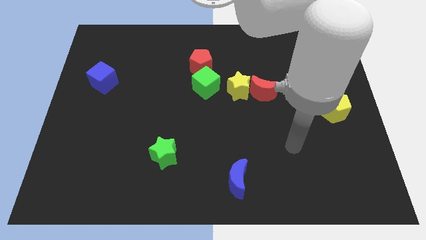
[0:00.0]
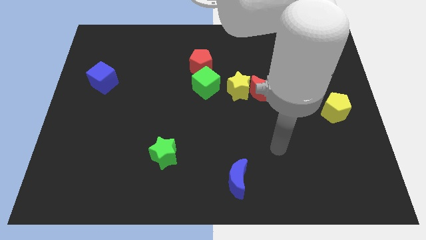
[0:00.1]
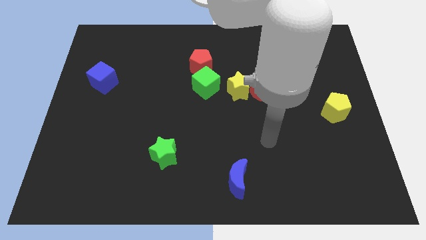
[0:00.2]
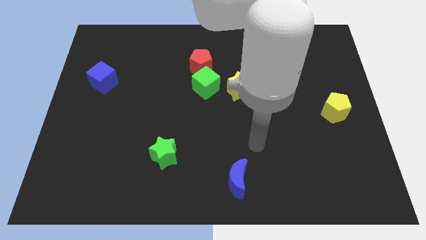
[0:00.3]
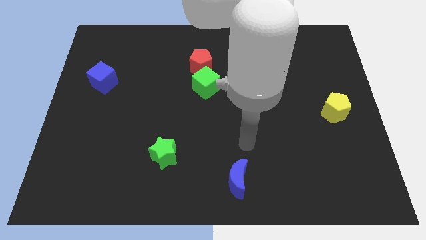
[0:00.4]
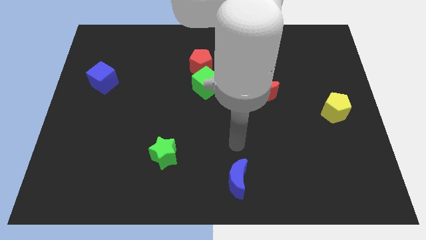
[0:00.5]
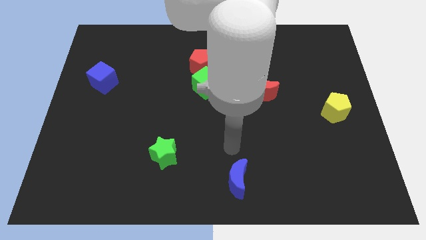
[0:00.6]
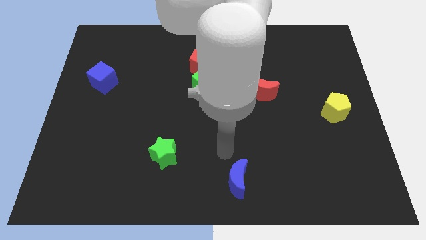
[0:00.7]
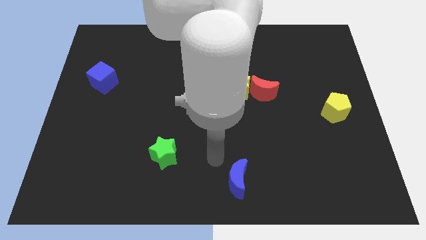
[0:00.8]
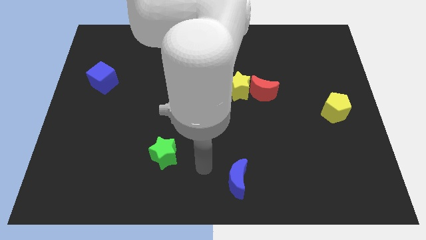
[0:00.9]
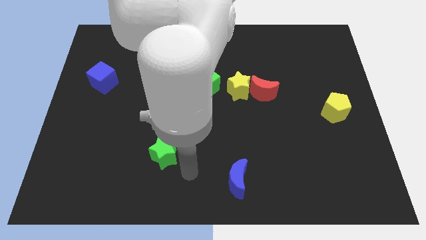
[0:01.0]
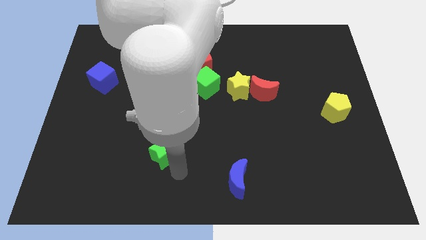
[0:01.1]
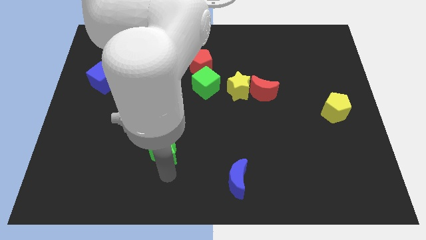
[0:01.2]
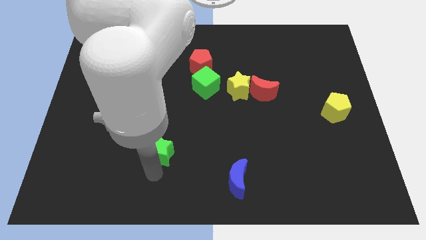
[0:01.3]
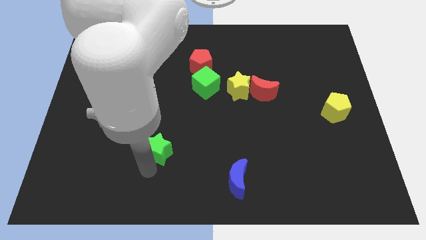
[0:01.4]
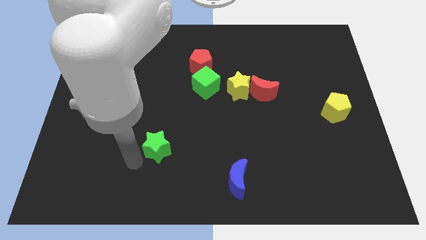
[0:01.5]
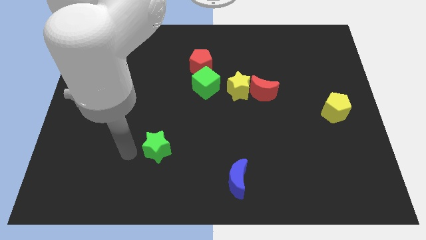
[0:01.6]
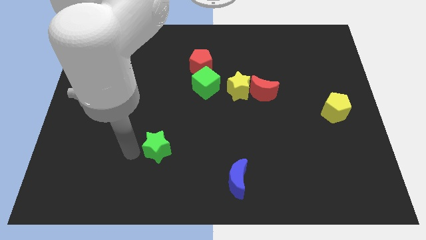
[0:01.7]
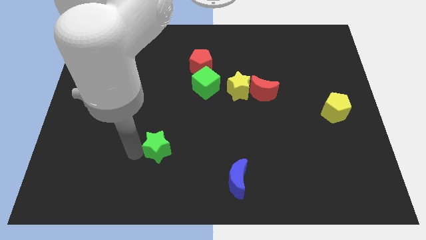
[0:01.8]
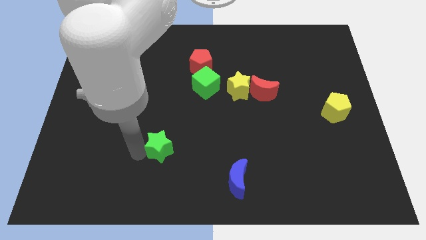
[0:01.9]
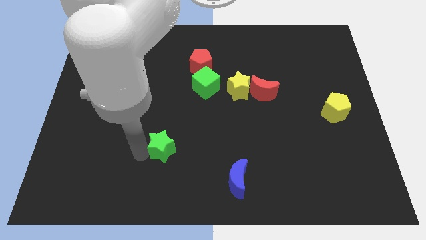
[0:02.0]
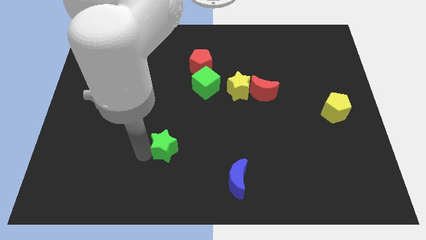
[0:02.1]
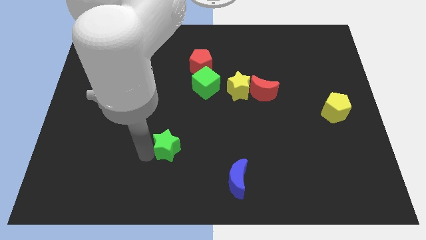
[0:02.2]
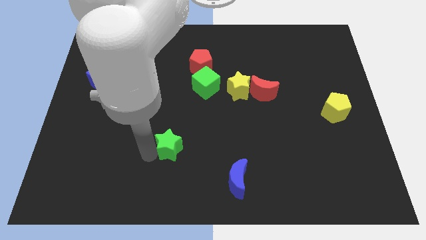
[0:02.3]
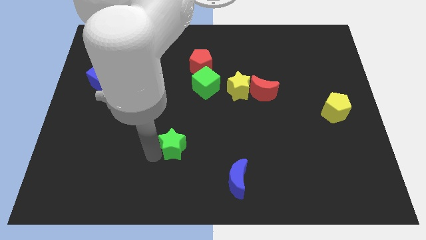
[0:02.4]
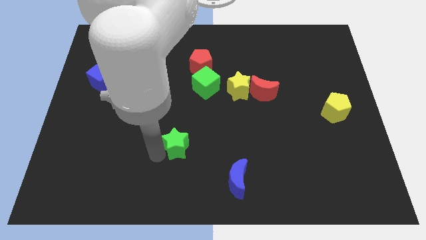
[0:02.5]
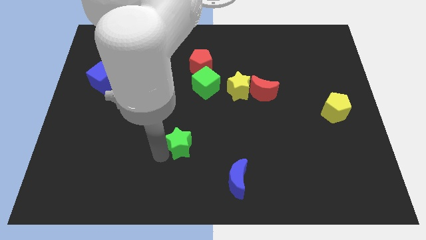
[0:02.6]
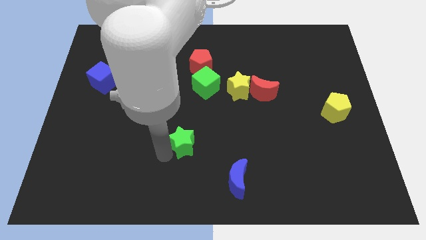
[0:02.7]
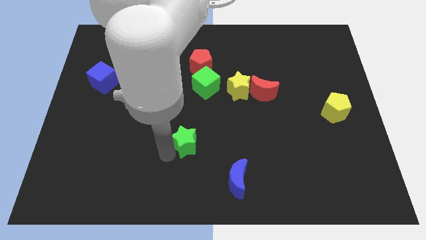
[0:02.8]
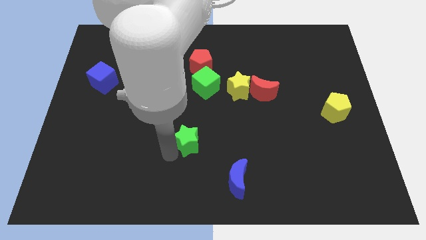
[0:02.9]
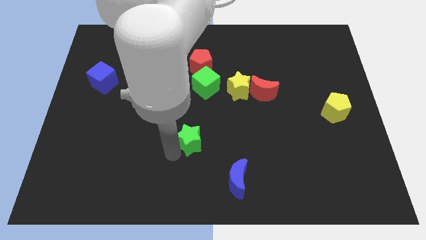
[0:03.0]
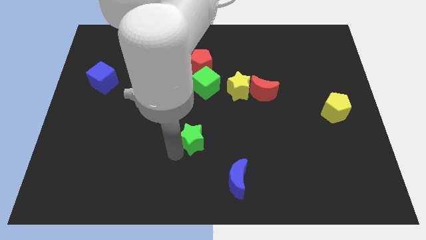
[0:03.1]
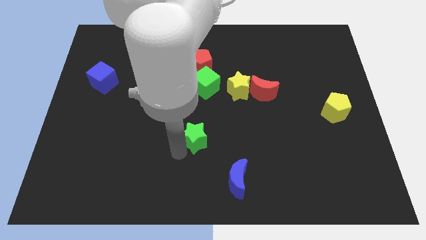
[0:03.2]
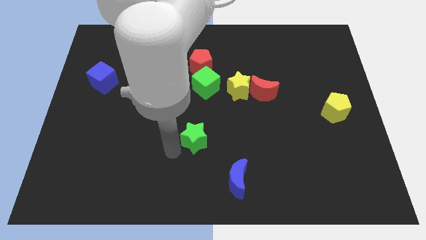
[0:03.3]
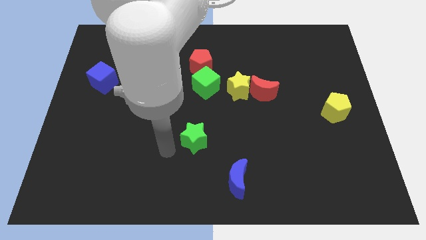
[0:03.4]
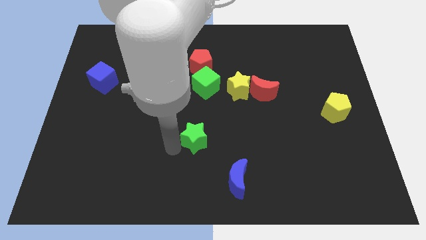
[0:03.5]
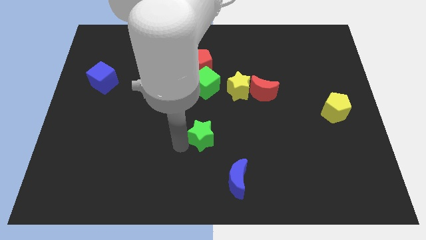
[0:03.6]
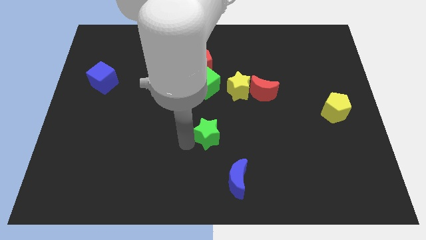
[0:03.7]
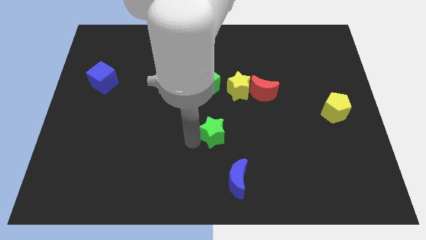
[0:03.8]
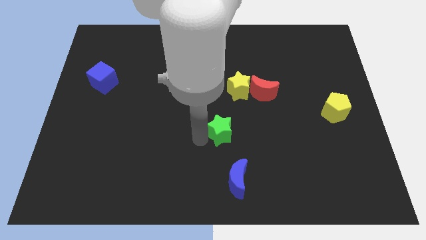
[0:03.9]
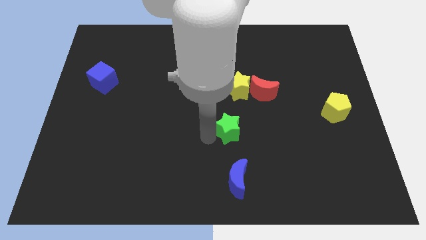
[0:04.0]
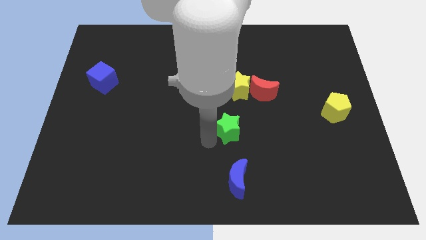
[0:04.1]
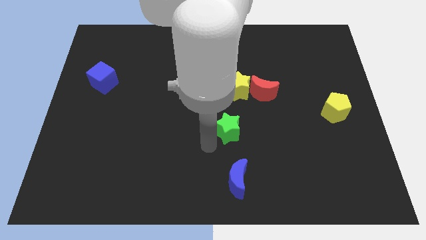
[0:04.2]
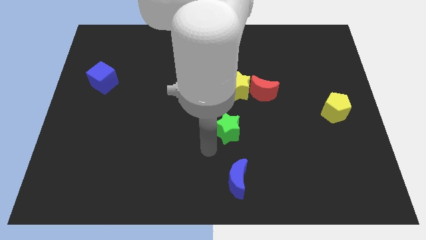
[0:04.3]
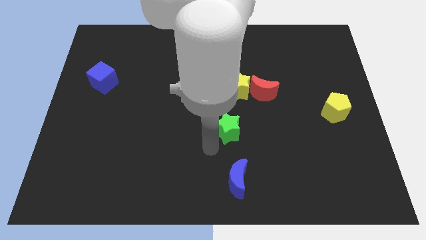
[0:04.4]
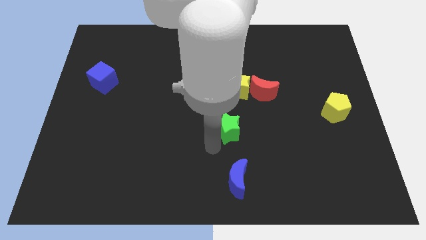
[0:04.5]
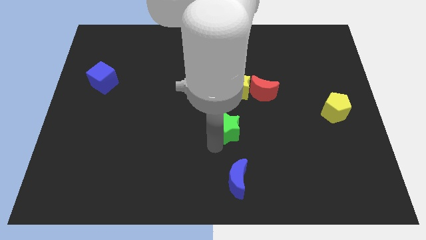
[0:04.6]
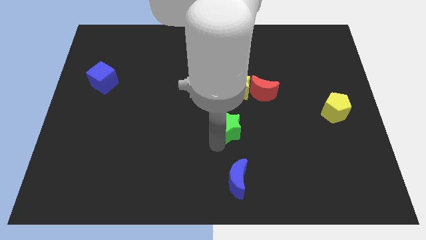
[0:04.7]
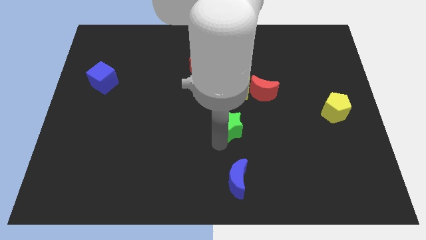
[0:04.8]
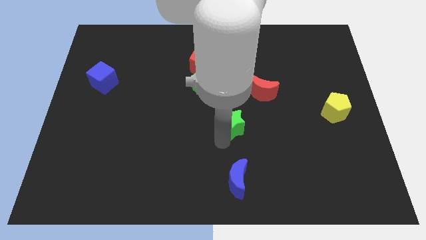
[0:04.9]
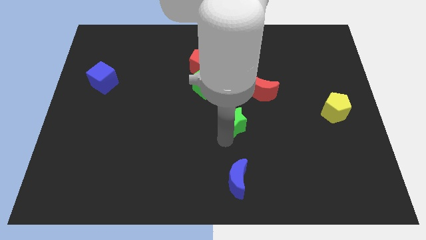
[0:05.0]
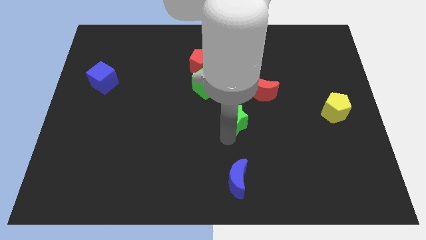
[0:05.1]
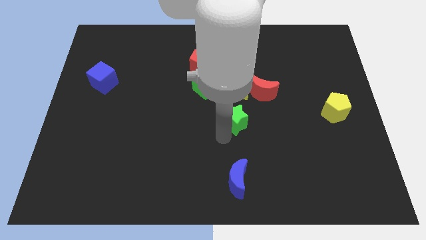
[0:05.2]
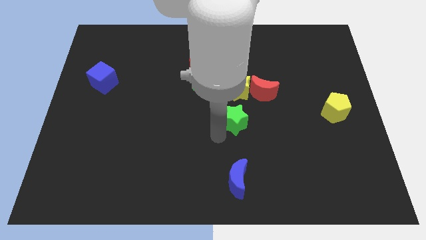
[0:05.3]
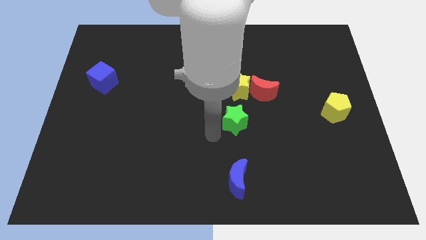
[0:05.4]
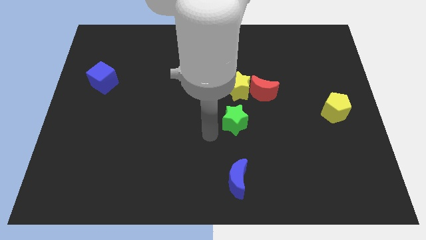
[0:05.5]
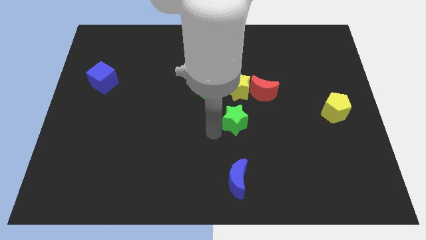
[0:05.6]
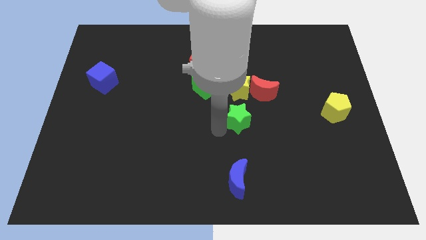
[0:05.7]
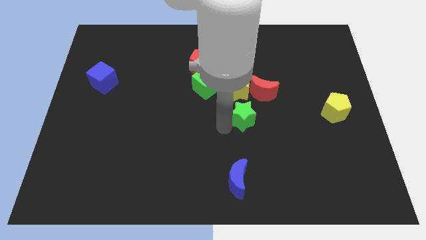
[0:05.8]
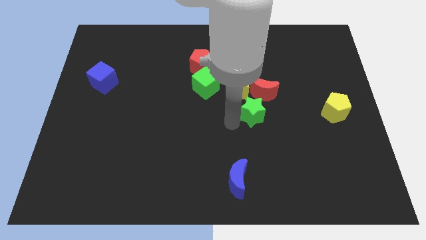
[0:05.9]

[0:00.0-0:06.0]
slide the green star upwards and right

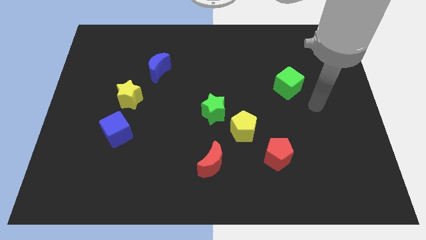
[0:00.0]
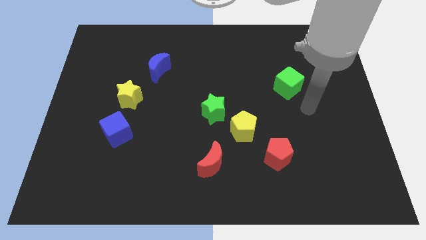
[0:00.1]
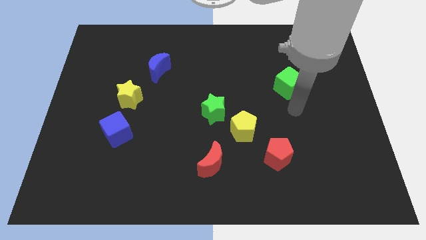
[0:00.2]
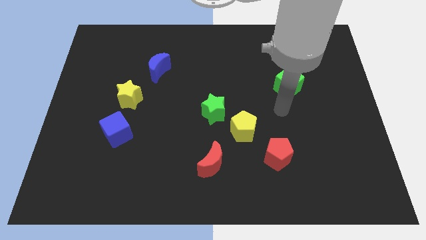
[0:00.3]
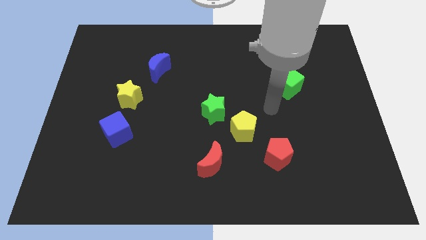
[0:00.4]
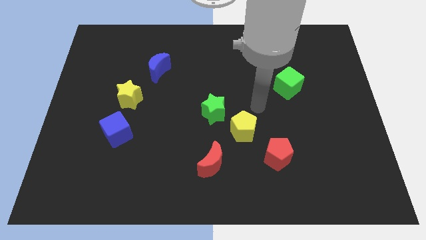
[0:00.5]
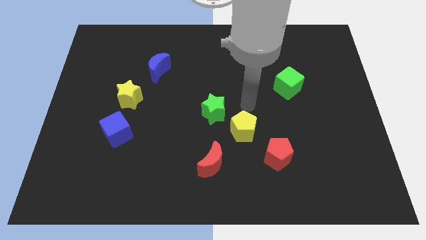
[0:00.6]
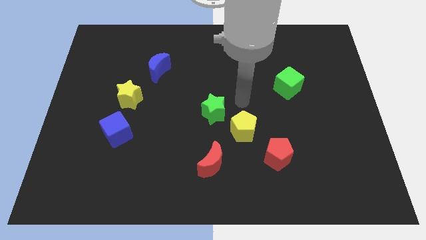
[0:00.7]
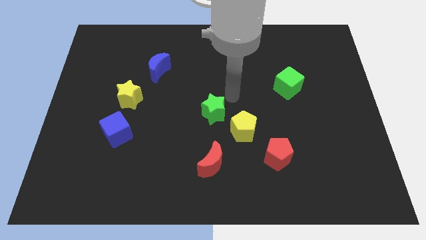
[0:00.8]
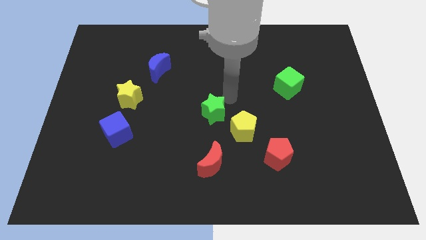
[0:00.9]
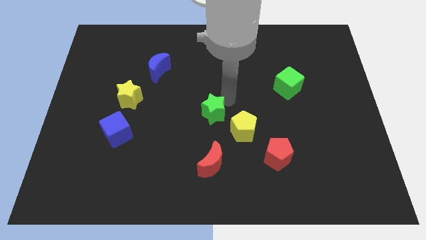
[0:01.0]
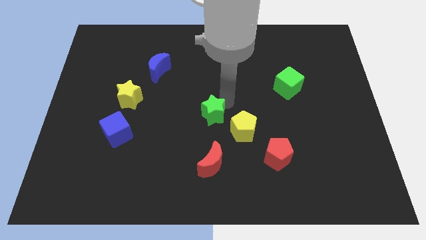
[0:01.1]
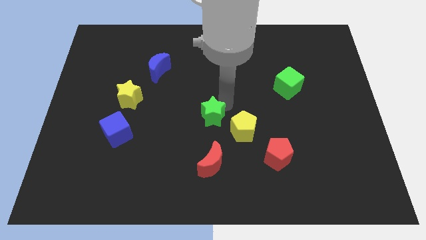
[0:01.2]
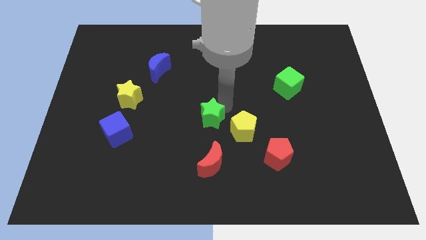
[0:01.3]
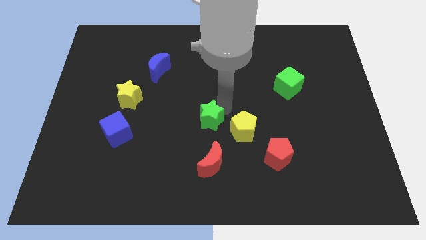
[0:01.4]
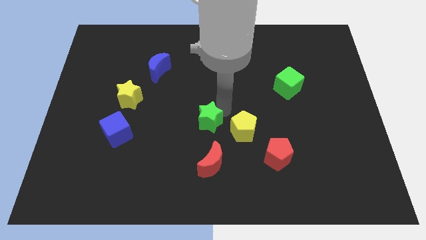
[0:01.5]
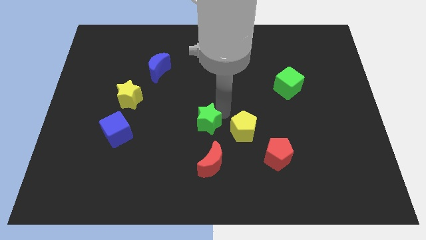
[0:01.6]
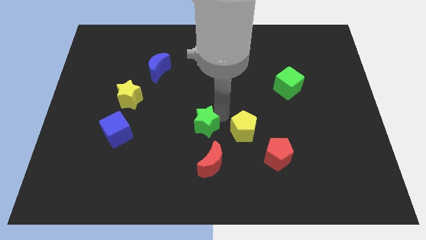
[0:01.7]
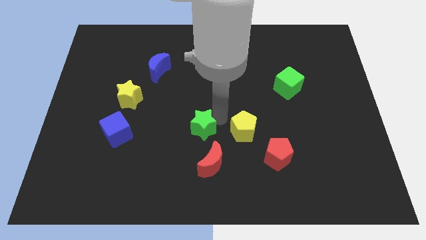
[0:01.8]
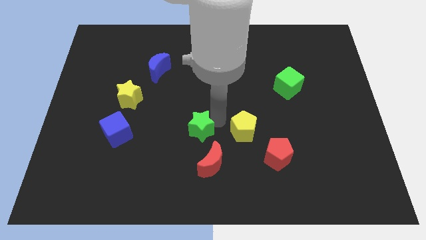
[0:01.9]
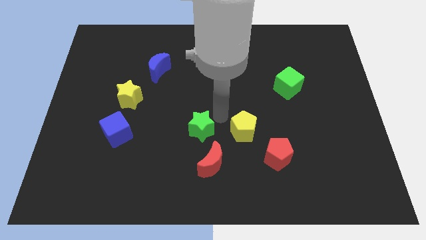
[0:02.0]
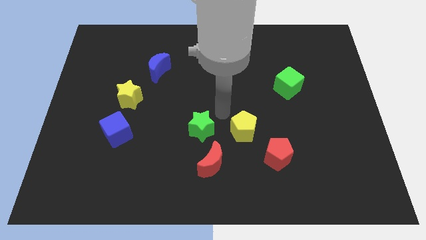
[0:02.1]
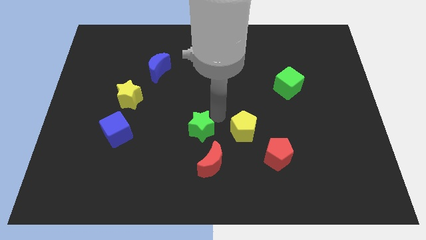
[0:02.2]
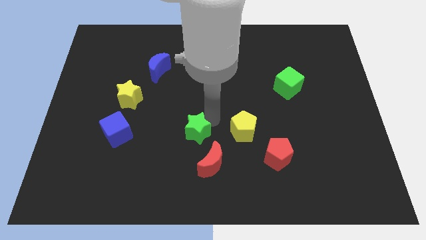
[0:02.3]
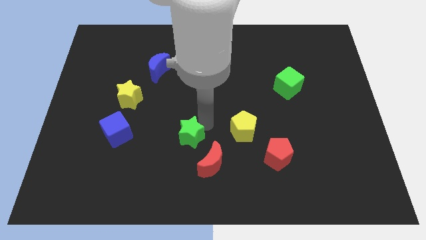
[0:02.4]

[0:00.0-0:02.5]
move the green star down and left a little bit
